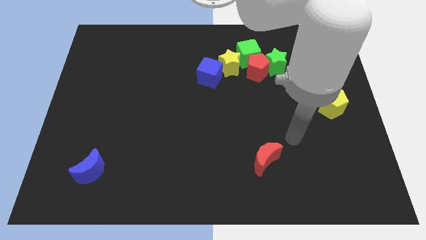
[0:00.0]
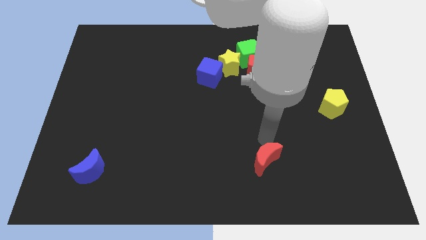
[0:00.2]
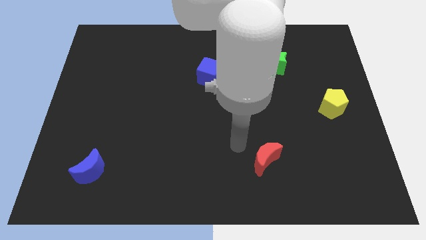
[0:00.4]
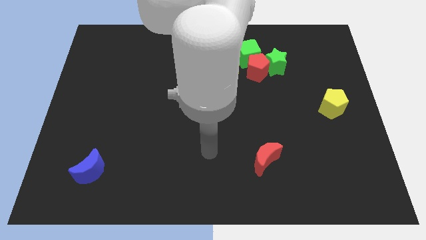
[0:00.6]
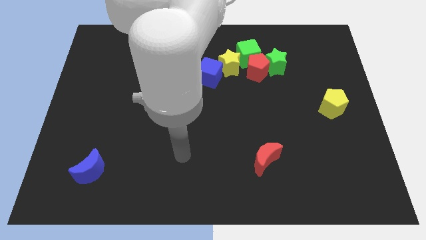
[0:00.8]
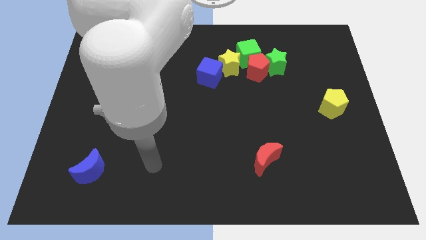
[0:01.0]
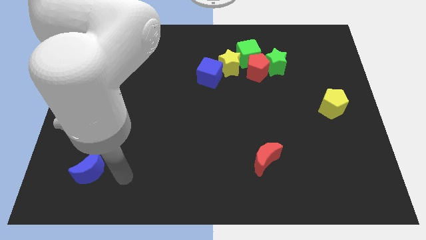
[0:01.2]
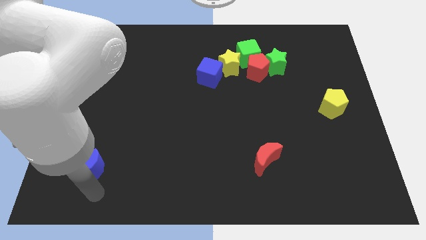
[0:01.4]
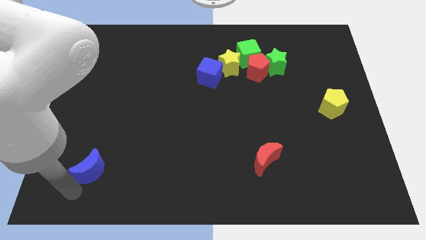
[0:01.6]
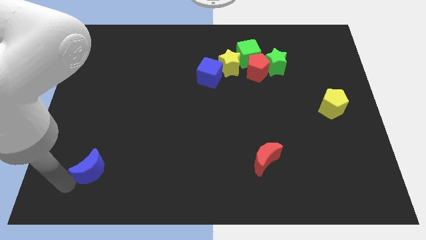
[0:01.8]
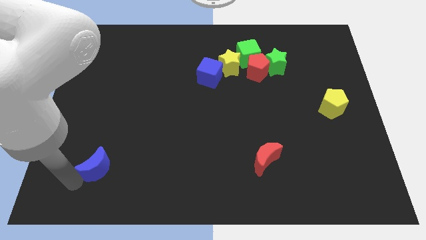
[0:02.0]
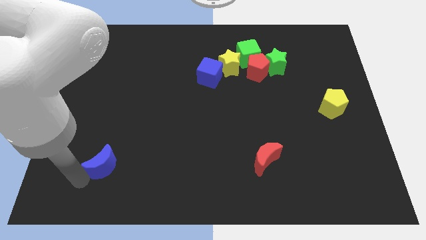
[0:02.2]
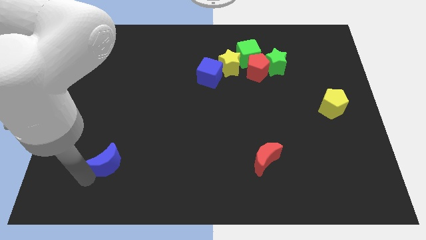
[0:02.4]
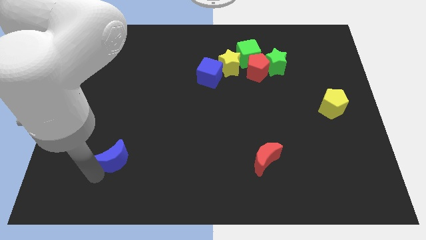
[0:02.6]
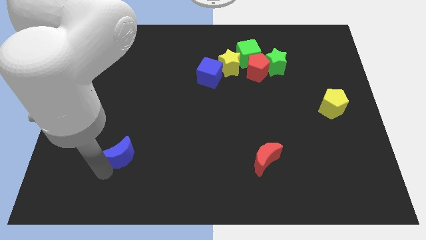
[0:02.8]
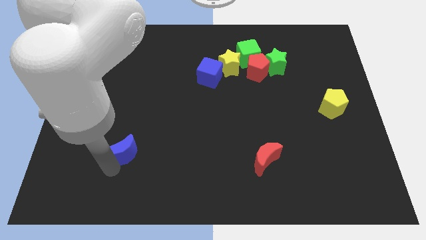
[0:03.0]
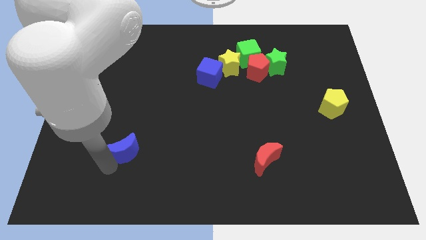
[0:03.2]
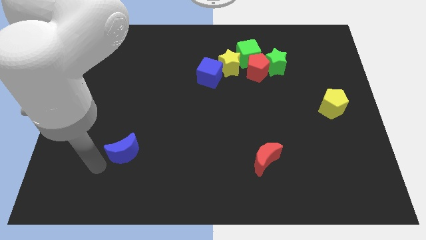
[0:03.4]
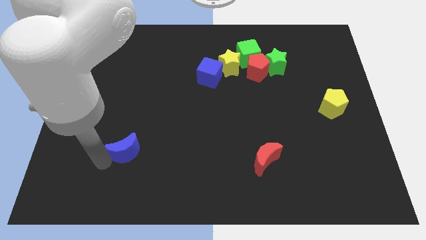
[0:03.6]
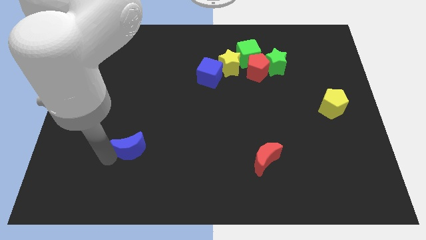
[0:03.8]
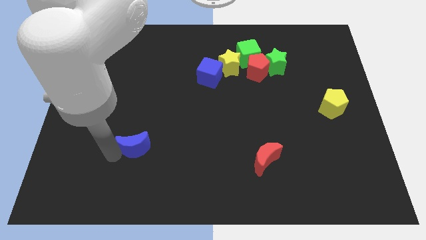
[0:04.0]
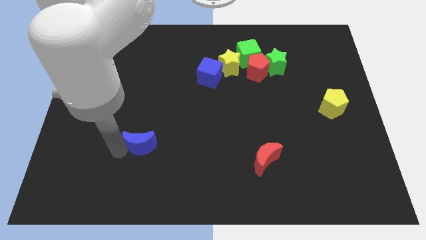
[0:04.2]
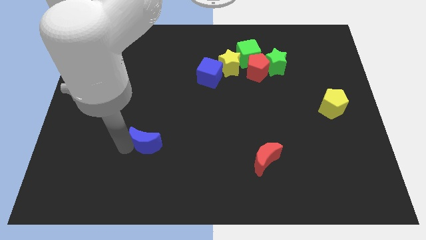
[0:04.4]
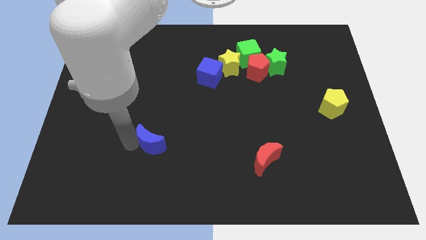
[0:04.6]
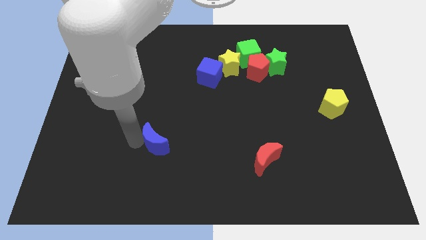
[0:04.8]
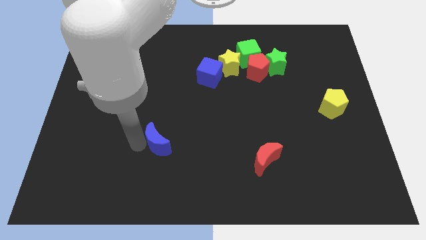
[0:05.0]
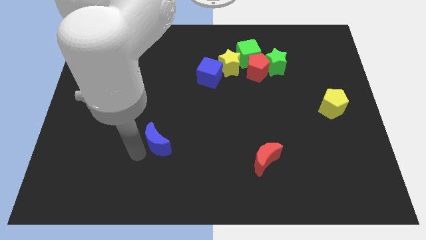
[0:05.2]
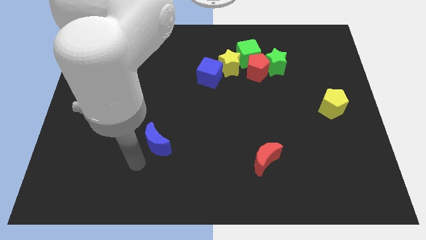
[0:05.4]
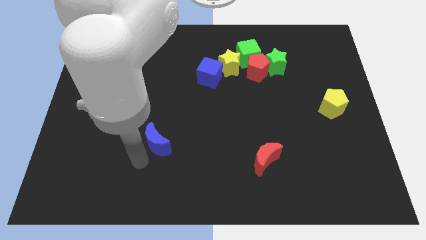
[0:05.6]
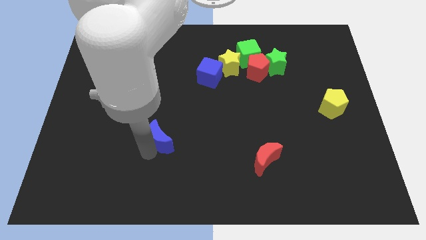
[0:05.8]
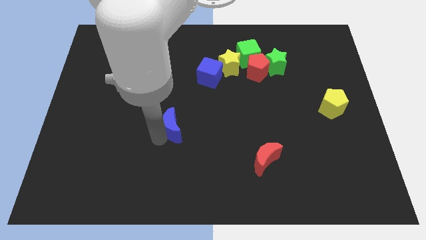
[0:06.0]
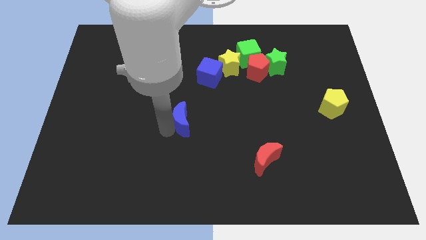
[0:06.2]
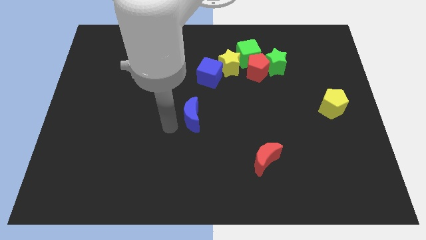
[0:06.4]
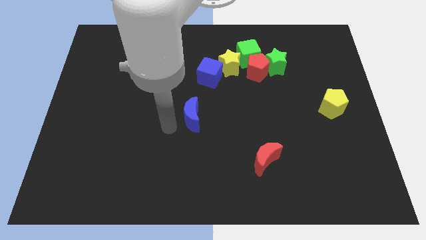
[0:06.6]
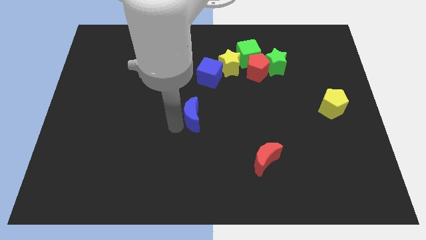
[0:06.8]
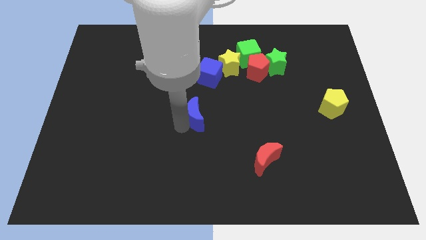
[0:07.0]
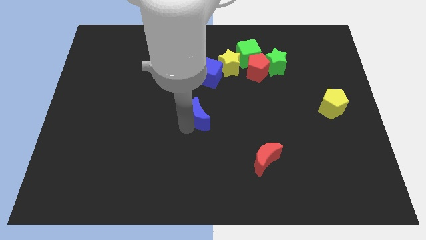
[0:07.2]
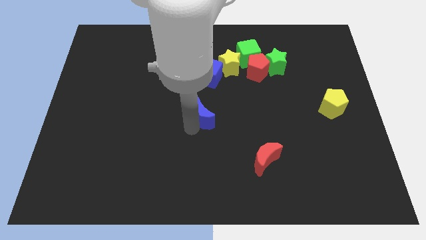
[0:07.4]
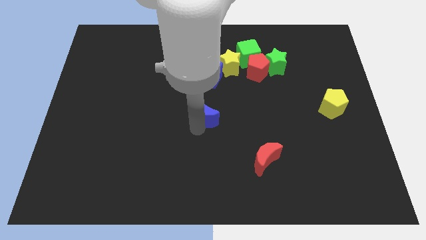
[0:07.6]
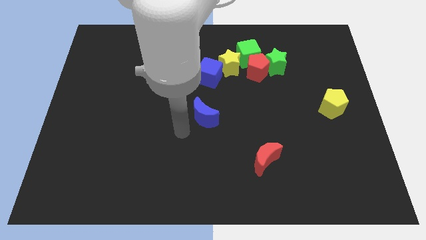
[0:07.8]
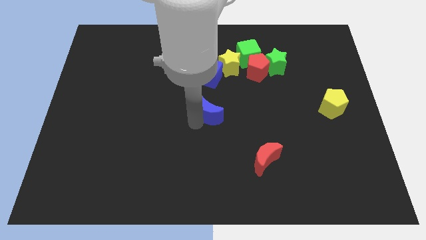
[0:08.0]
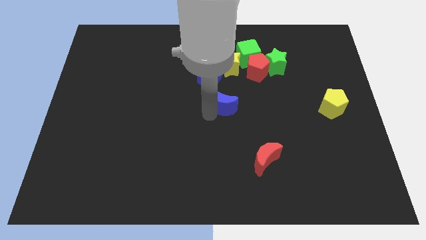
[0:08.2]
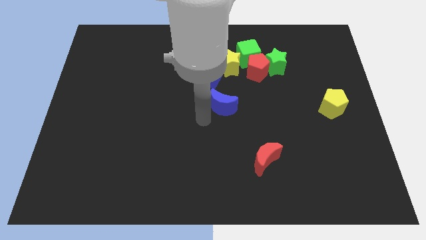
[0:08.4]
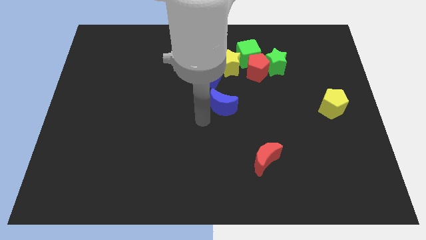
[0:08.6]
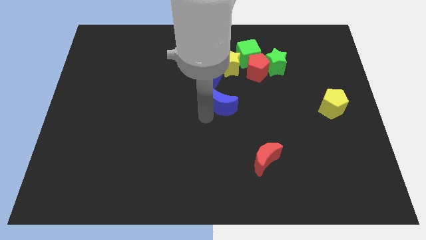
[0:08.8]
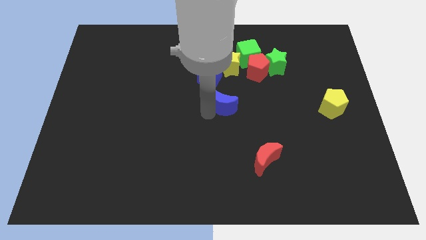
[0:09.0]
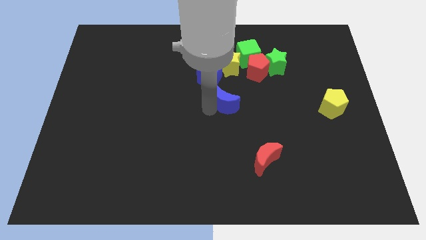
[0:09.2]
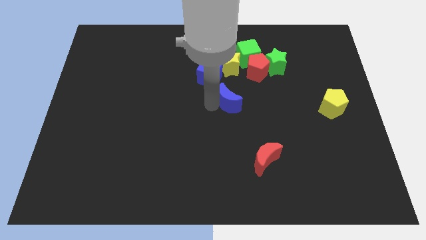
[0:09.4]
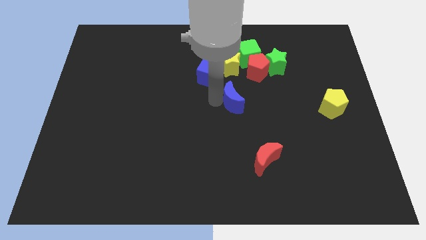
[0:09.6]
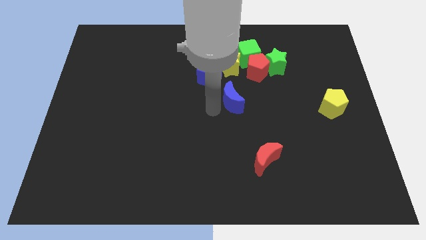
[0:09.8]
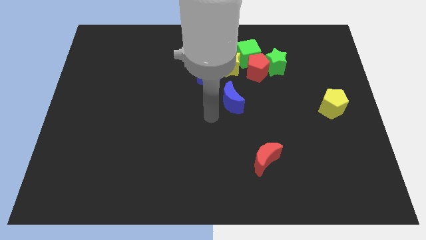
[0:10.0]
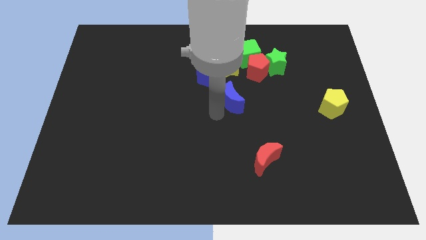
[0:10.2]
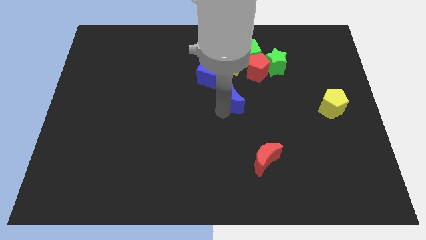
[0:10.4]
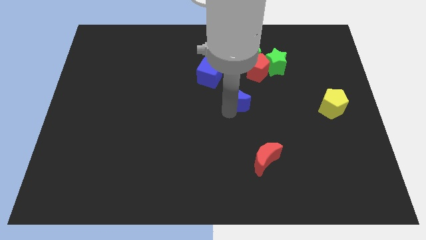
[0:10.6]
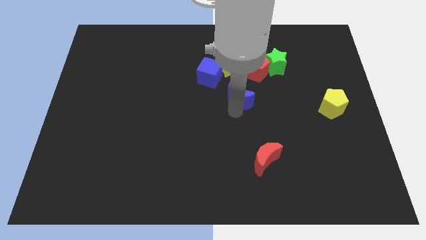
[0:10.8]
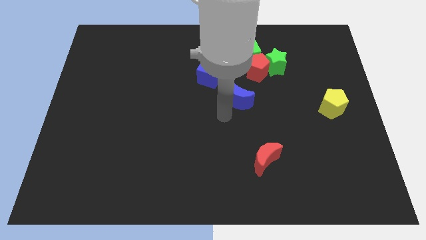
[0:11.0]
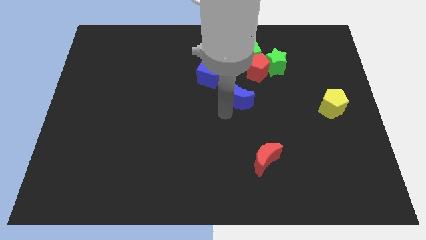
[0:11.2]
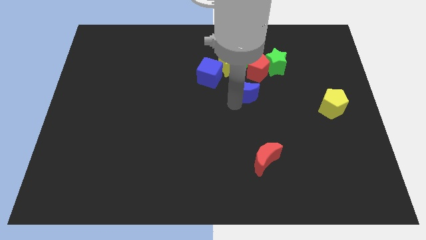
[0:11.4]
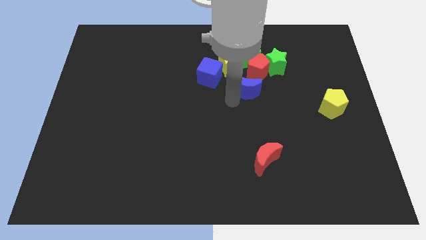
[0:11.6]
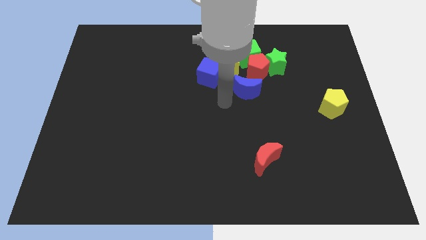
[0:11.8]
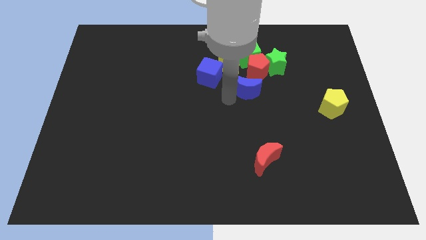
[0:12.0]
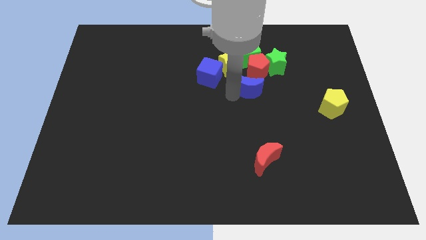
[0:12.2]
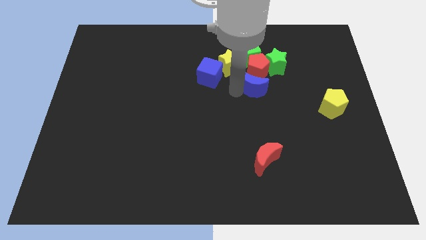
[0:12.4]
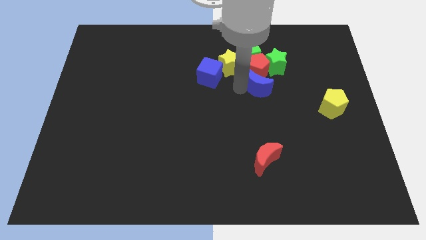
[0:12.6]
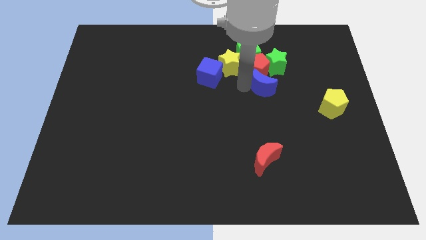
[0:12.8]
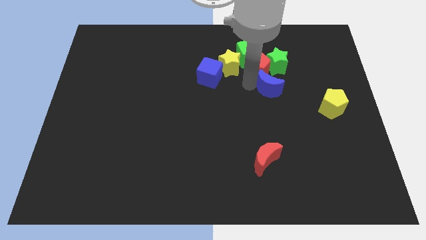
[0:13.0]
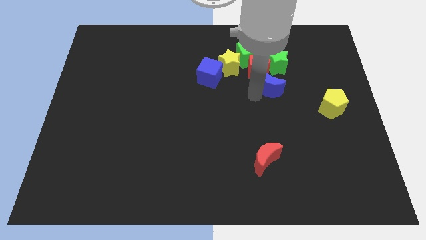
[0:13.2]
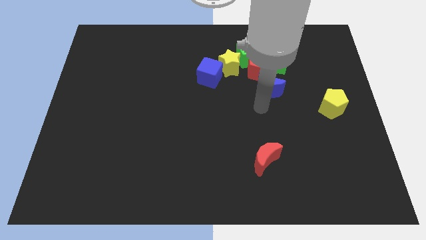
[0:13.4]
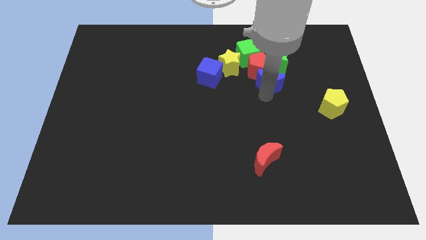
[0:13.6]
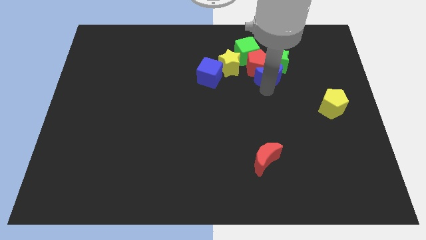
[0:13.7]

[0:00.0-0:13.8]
move the blue moon towards the green star
